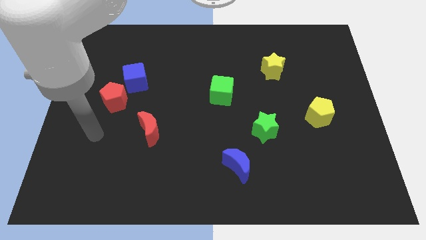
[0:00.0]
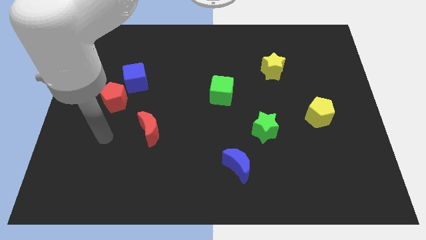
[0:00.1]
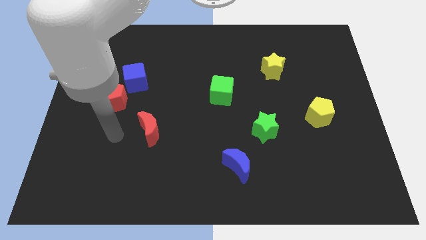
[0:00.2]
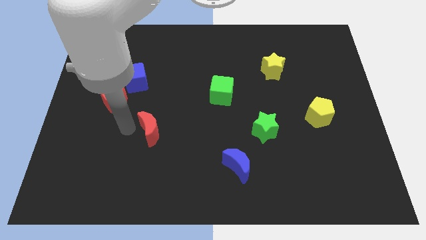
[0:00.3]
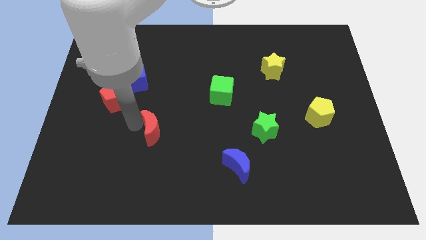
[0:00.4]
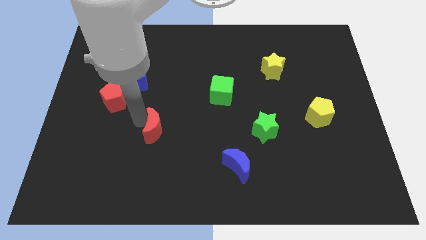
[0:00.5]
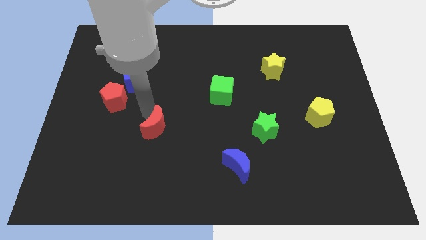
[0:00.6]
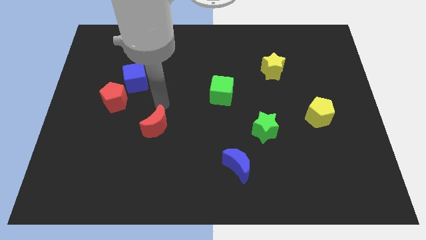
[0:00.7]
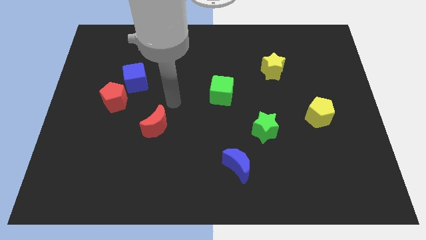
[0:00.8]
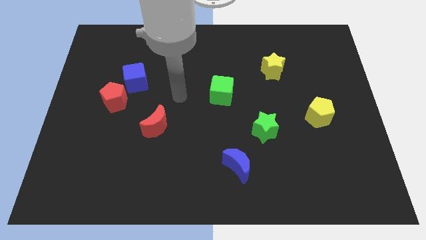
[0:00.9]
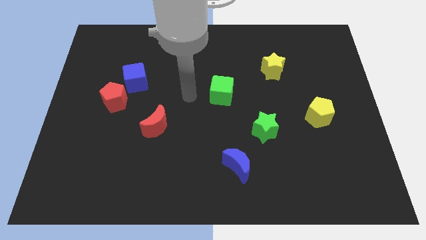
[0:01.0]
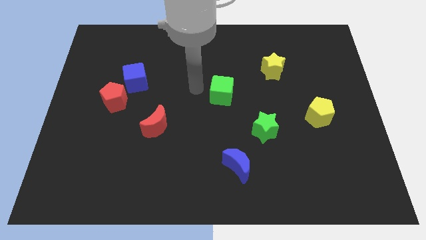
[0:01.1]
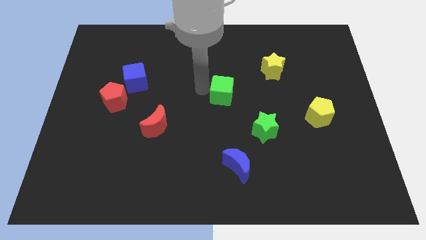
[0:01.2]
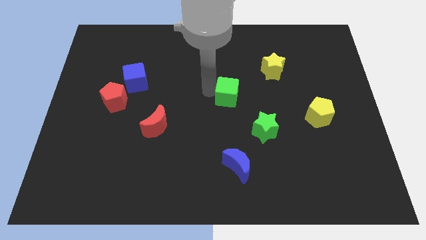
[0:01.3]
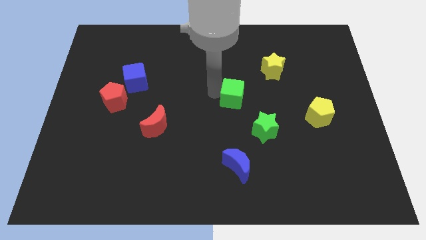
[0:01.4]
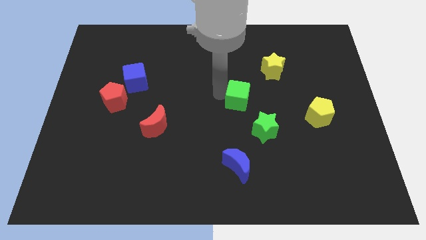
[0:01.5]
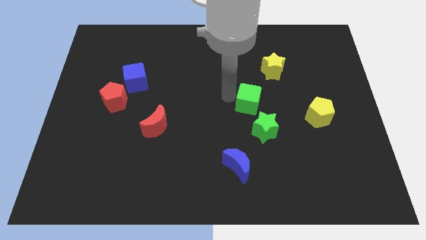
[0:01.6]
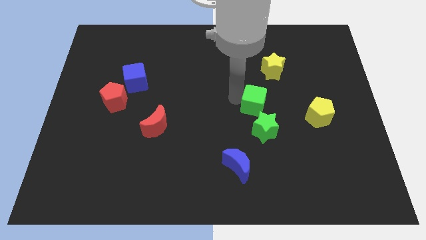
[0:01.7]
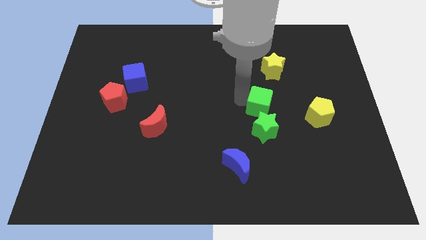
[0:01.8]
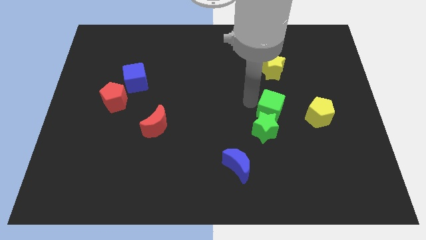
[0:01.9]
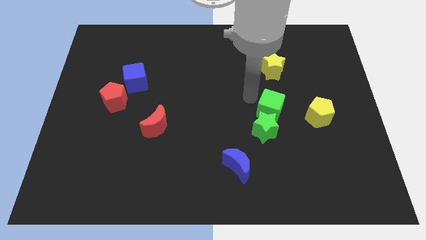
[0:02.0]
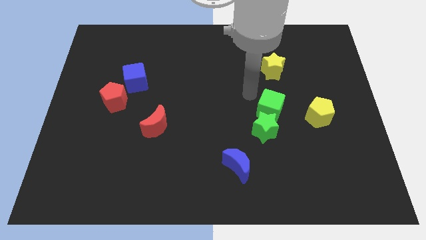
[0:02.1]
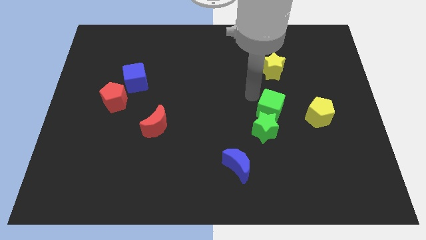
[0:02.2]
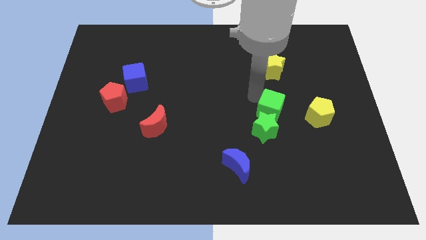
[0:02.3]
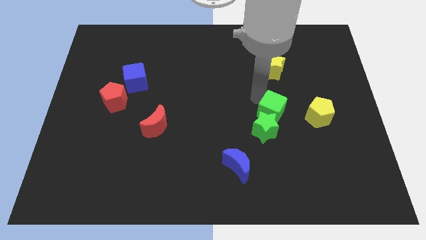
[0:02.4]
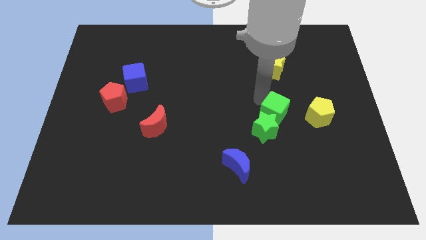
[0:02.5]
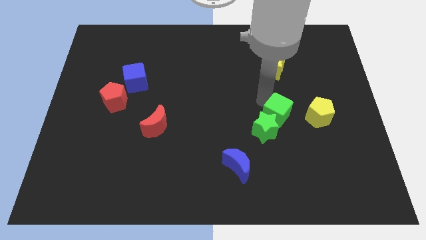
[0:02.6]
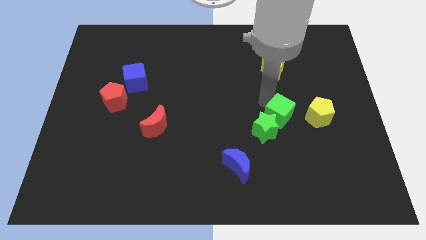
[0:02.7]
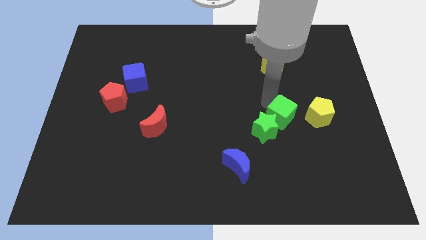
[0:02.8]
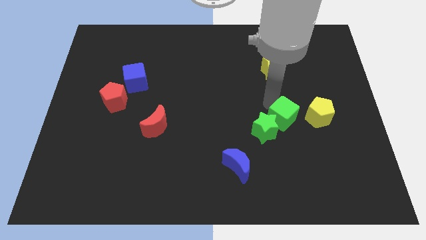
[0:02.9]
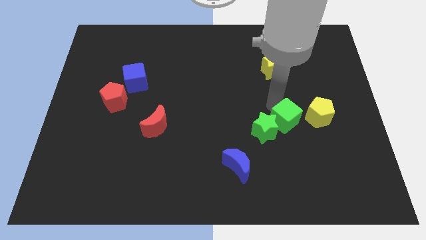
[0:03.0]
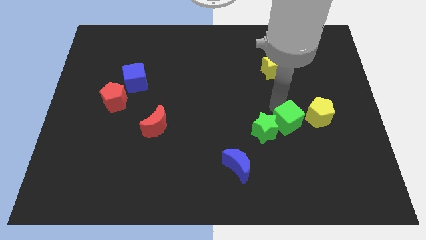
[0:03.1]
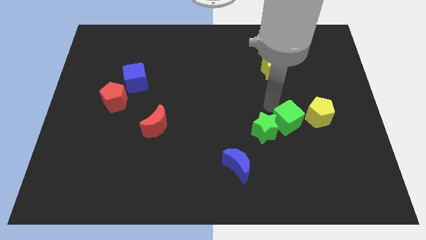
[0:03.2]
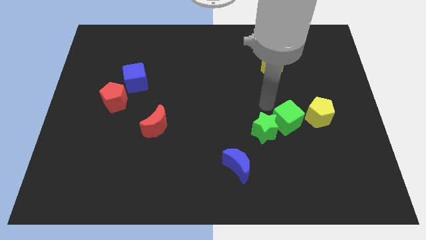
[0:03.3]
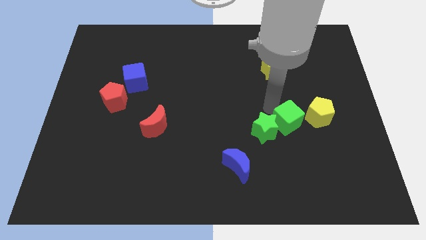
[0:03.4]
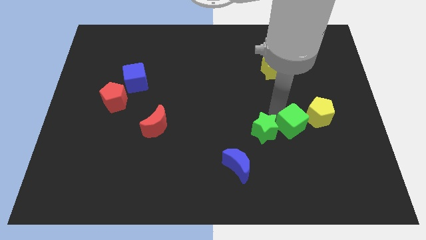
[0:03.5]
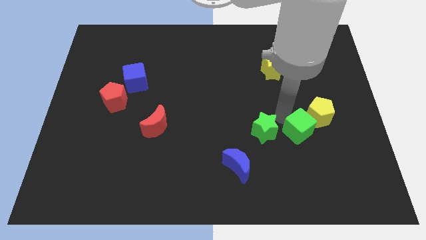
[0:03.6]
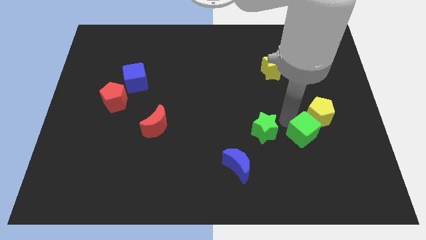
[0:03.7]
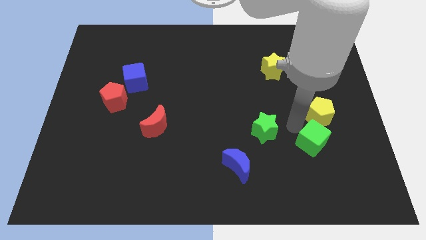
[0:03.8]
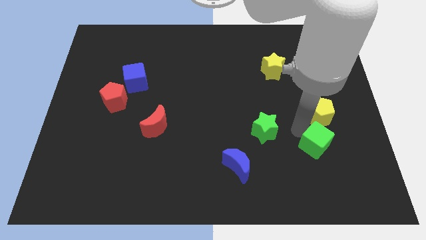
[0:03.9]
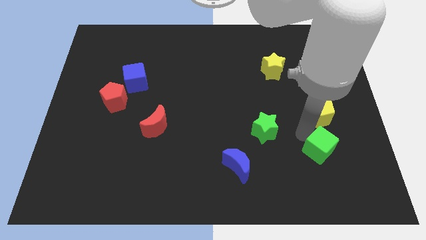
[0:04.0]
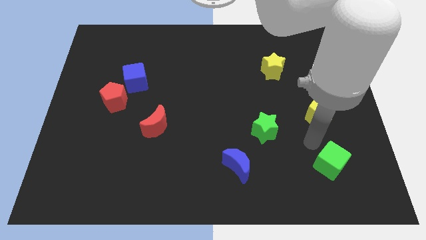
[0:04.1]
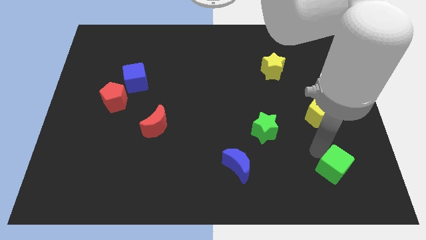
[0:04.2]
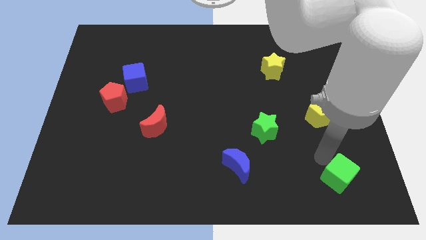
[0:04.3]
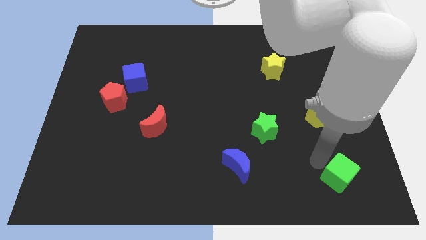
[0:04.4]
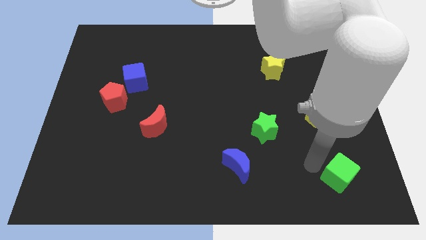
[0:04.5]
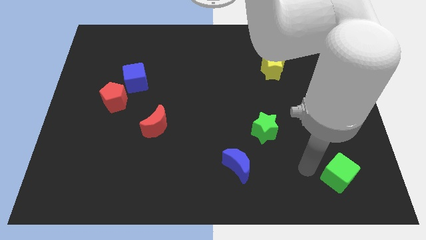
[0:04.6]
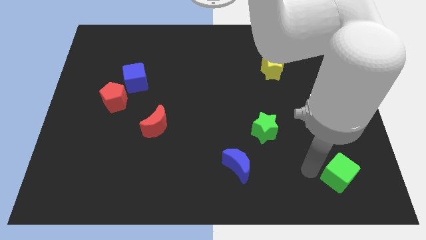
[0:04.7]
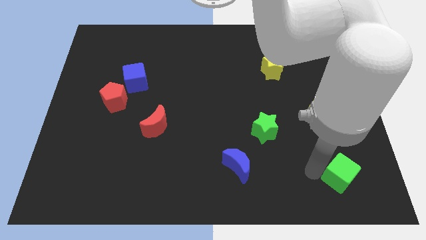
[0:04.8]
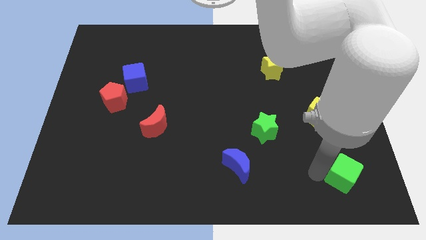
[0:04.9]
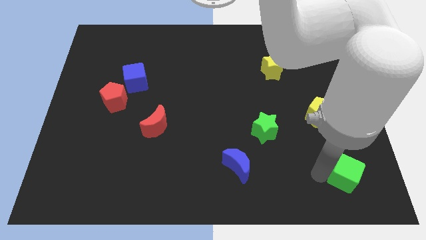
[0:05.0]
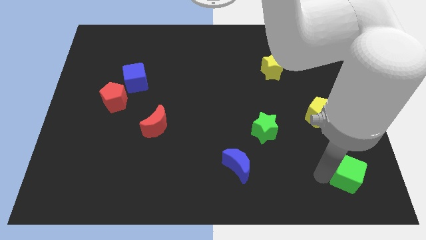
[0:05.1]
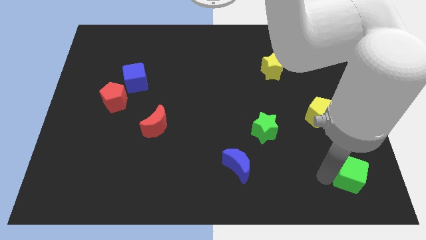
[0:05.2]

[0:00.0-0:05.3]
put the green cube to the bottom right

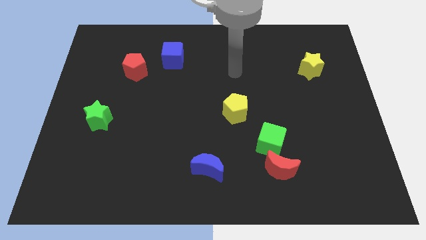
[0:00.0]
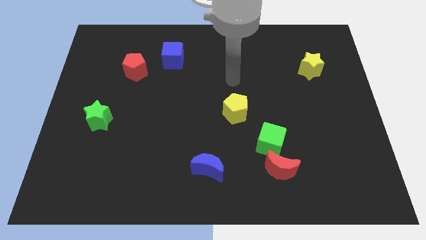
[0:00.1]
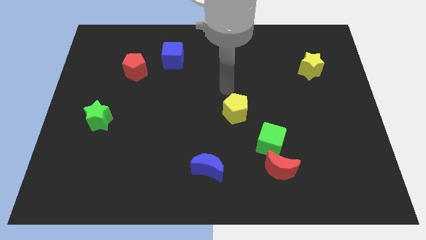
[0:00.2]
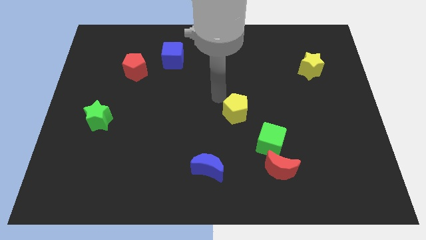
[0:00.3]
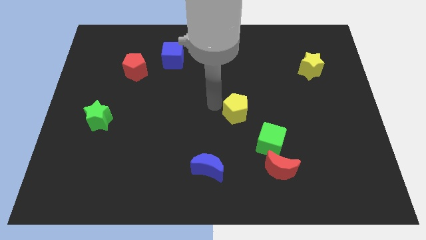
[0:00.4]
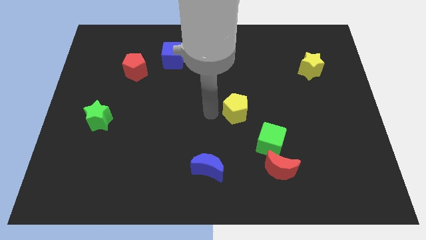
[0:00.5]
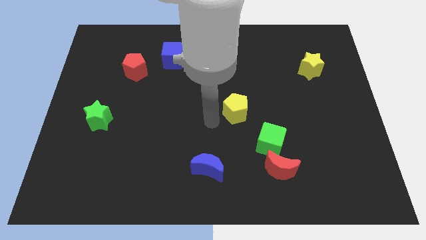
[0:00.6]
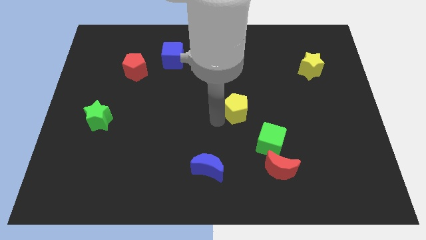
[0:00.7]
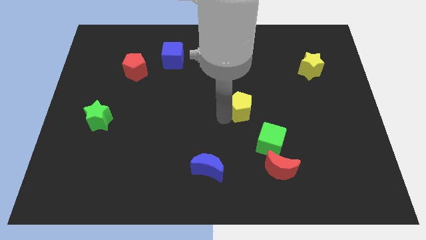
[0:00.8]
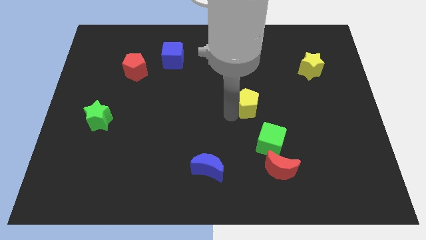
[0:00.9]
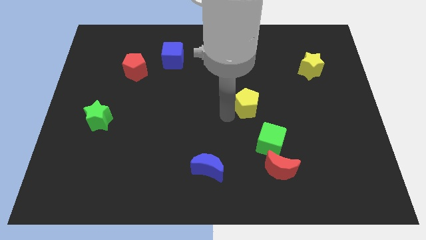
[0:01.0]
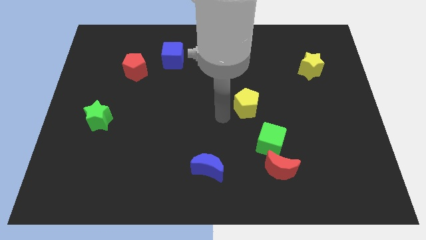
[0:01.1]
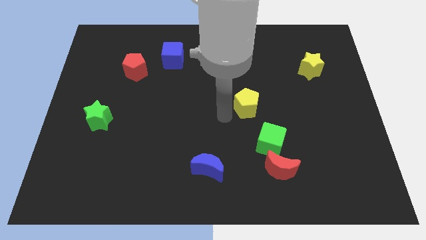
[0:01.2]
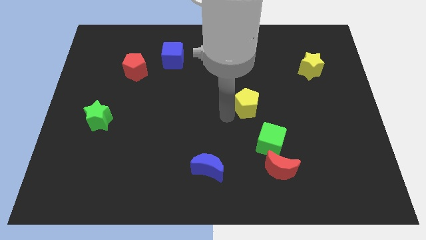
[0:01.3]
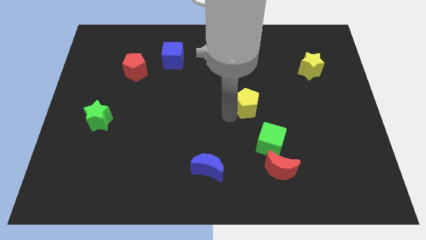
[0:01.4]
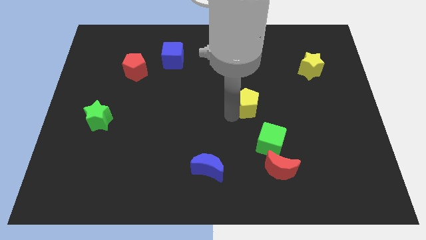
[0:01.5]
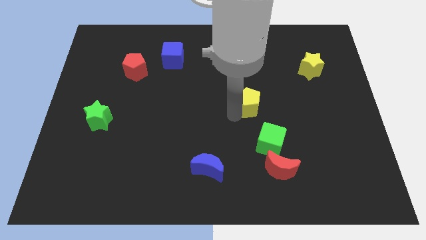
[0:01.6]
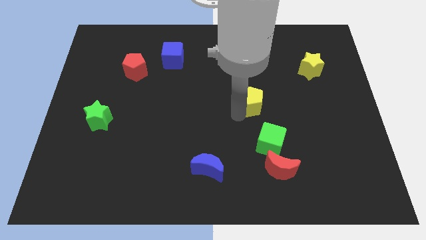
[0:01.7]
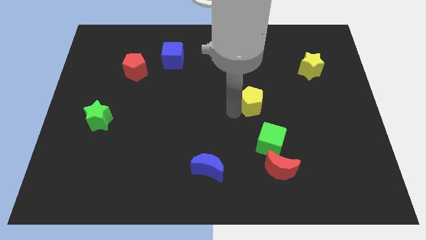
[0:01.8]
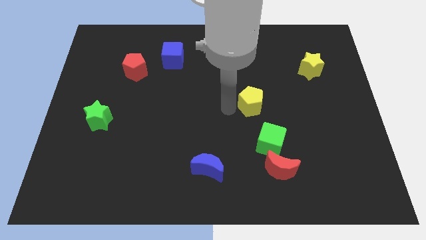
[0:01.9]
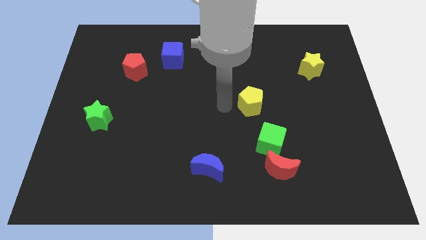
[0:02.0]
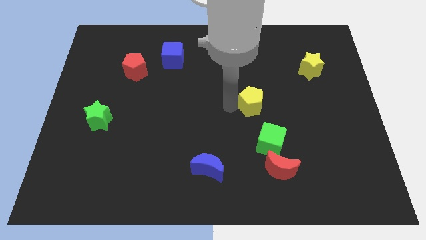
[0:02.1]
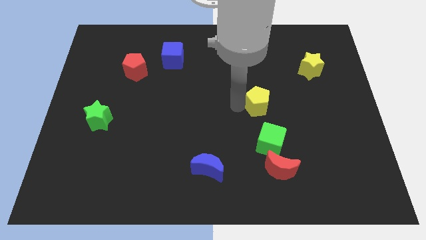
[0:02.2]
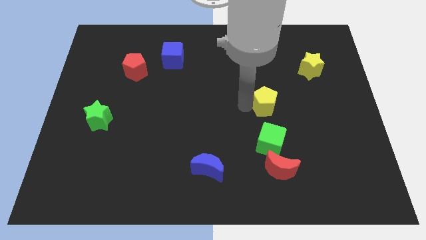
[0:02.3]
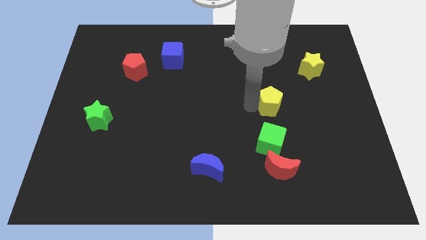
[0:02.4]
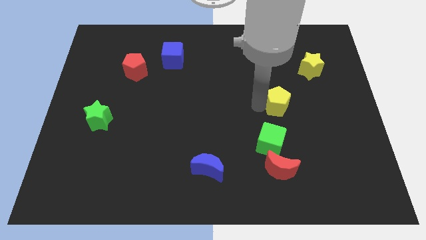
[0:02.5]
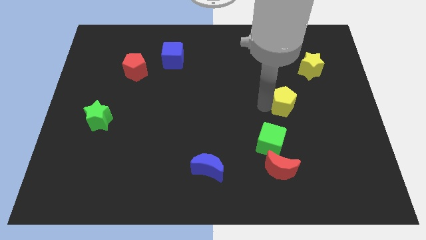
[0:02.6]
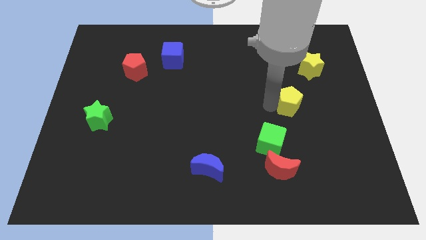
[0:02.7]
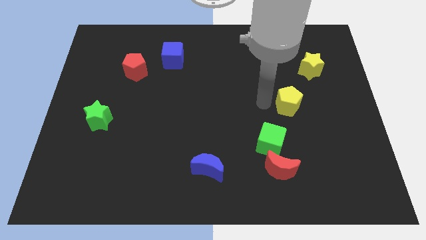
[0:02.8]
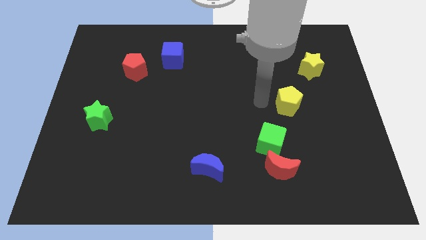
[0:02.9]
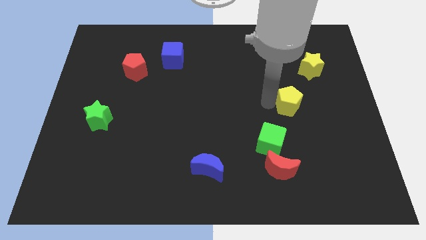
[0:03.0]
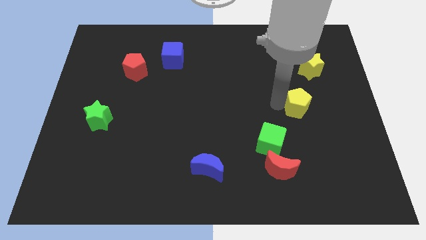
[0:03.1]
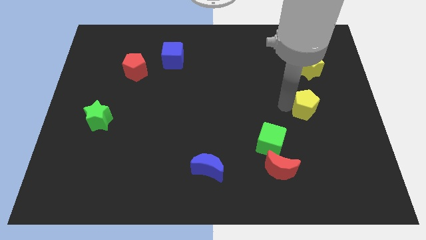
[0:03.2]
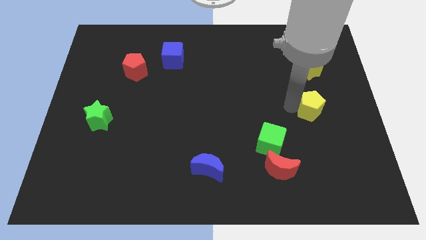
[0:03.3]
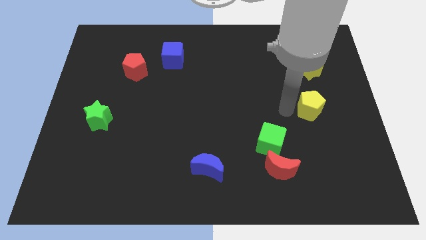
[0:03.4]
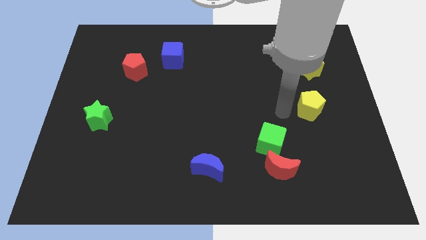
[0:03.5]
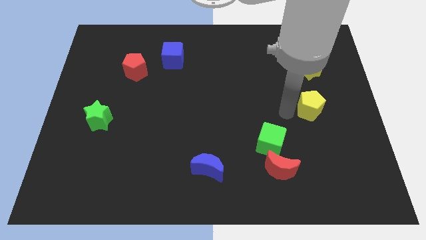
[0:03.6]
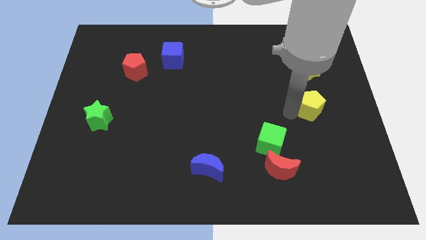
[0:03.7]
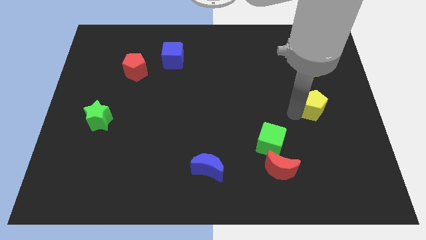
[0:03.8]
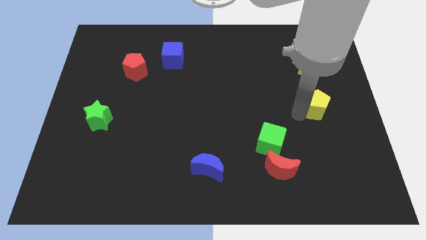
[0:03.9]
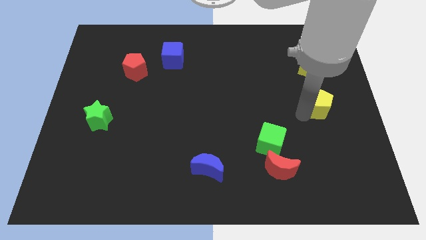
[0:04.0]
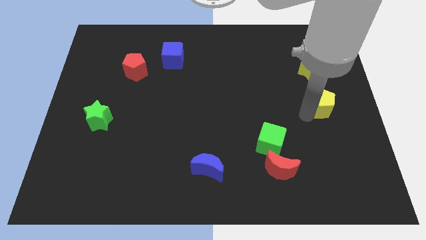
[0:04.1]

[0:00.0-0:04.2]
put the yellow pentagon to the center right
